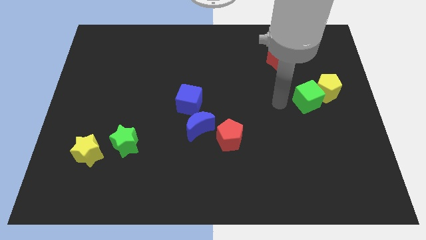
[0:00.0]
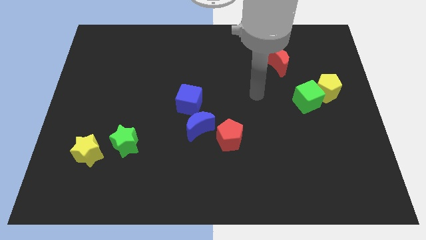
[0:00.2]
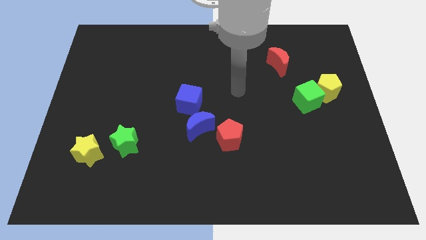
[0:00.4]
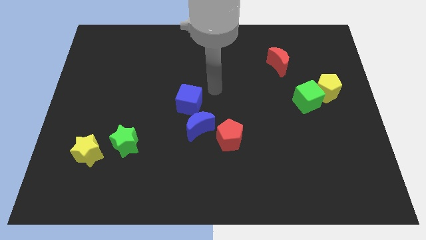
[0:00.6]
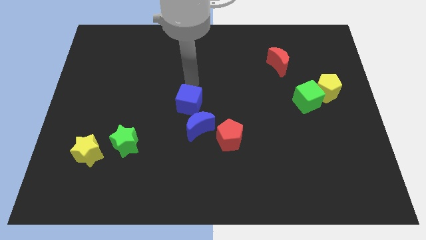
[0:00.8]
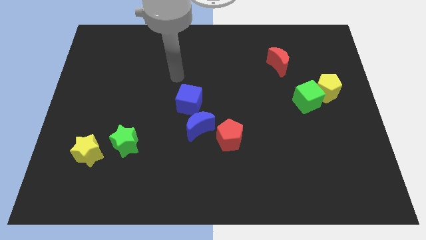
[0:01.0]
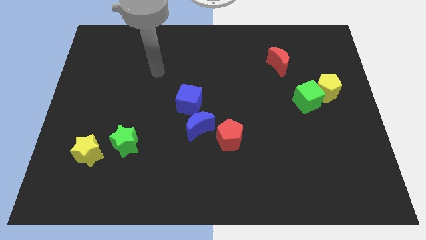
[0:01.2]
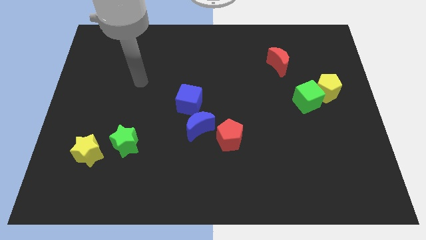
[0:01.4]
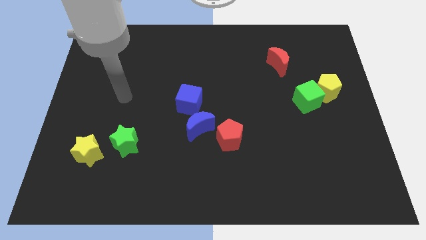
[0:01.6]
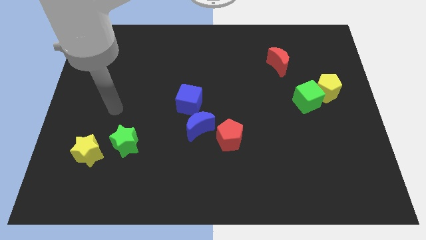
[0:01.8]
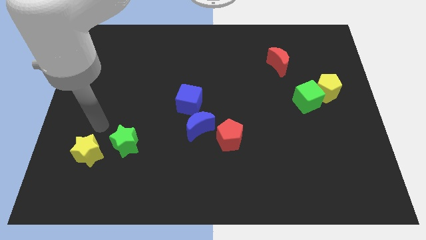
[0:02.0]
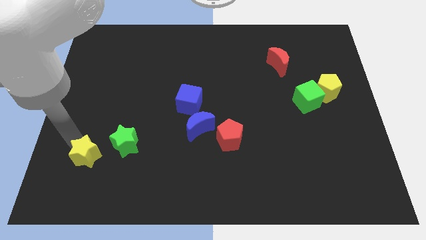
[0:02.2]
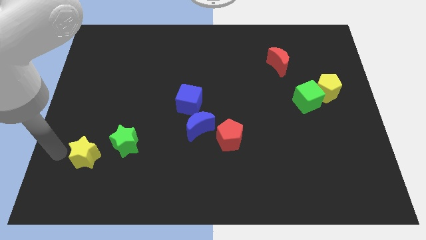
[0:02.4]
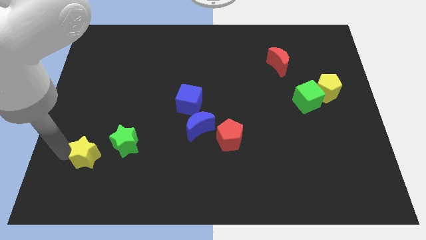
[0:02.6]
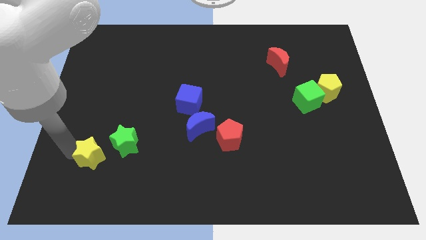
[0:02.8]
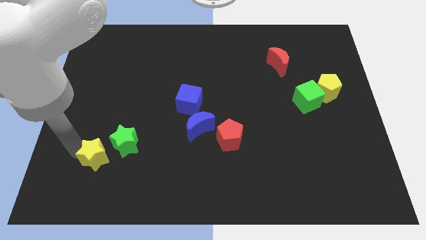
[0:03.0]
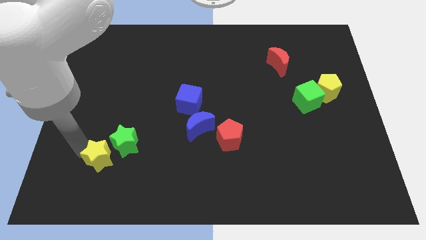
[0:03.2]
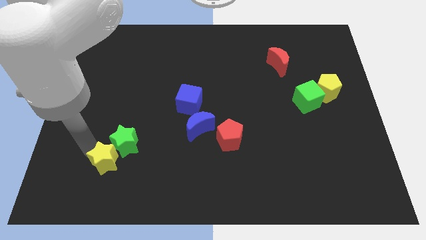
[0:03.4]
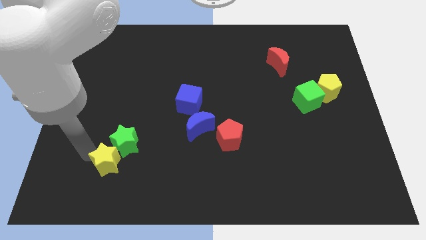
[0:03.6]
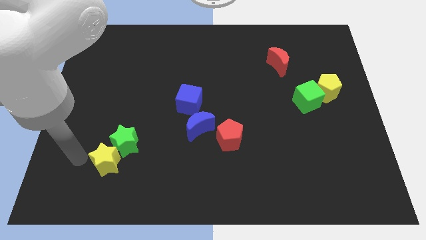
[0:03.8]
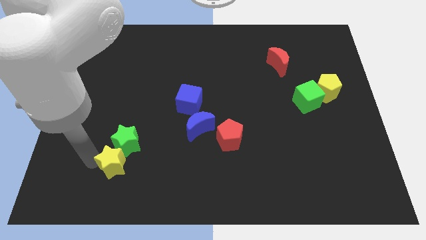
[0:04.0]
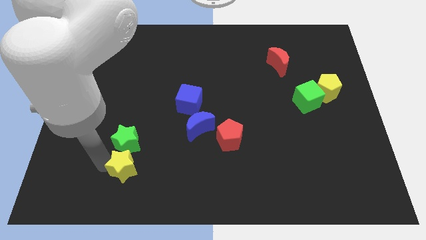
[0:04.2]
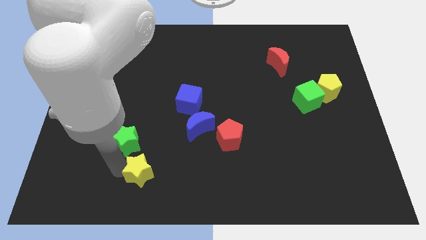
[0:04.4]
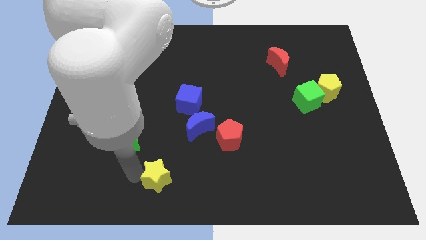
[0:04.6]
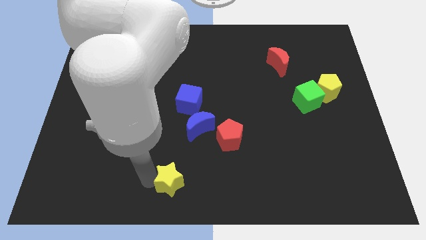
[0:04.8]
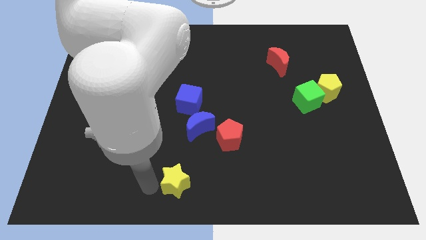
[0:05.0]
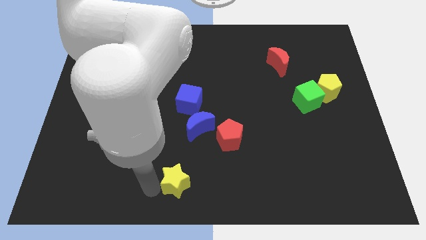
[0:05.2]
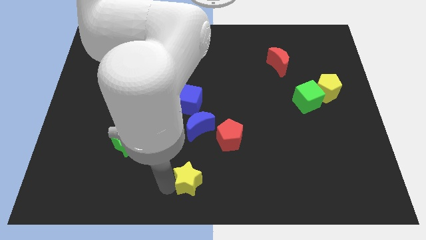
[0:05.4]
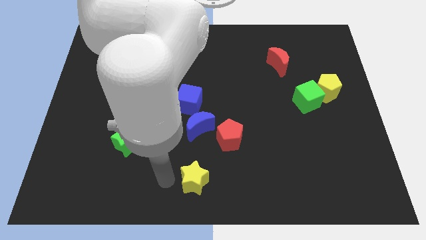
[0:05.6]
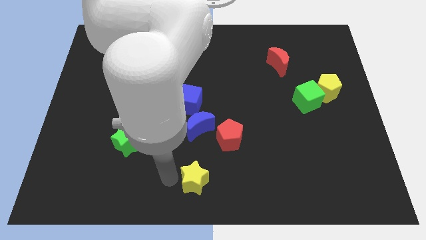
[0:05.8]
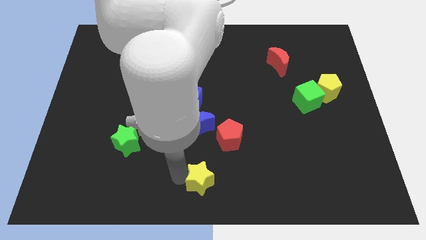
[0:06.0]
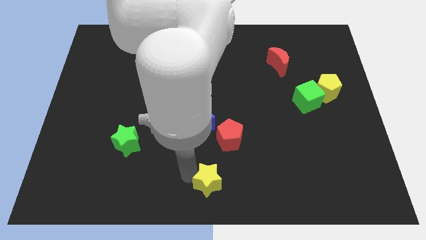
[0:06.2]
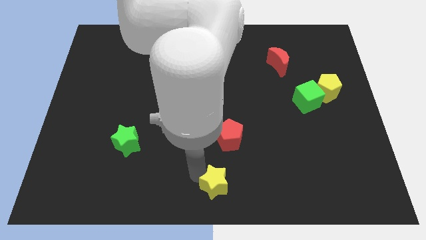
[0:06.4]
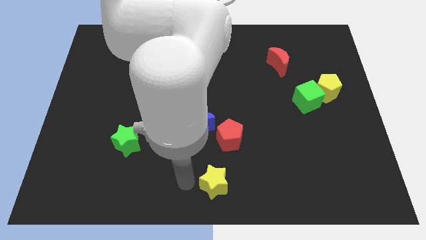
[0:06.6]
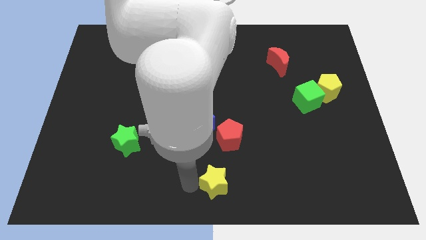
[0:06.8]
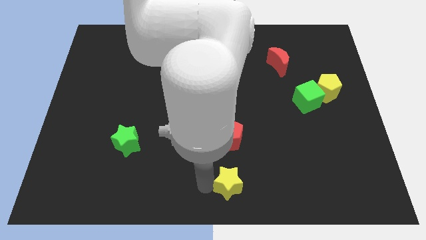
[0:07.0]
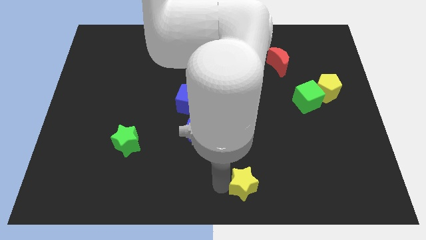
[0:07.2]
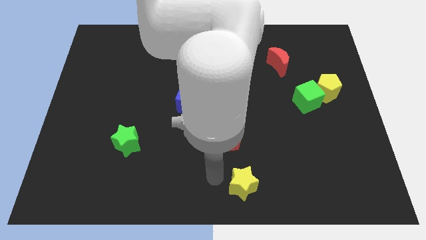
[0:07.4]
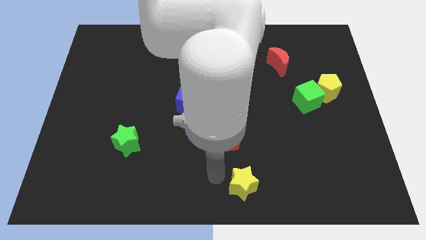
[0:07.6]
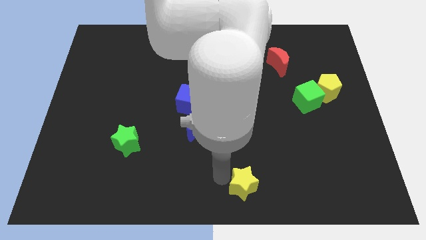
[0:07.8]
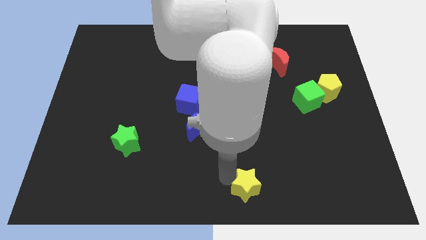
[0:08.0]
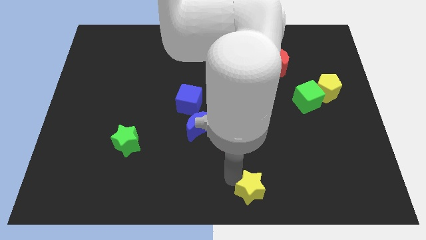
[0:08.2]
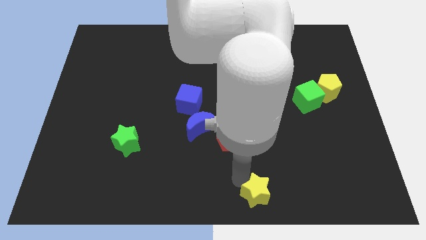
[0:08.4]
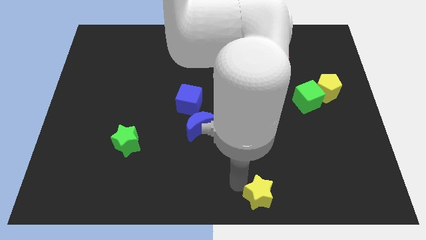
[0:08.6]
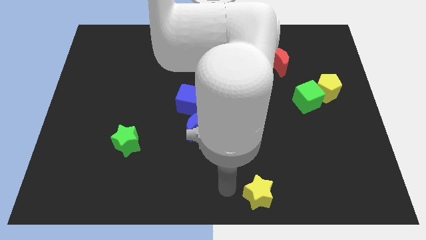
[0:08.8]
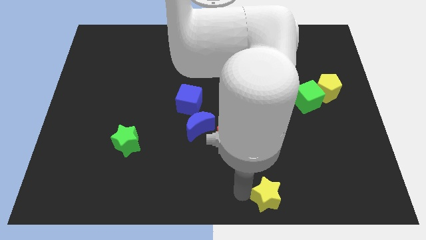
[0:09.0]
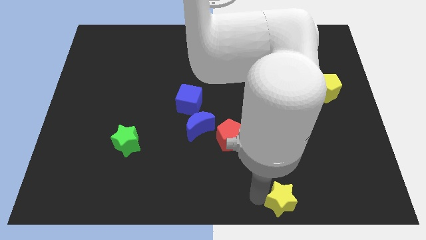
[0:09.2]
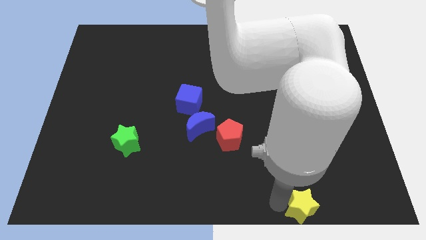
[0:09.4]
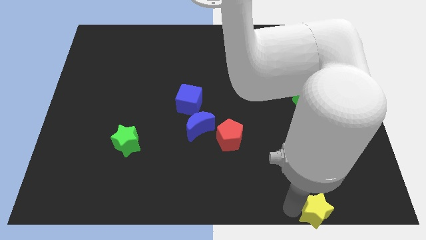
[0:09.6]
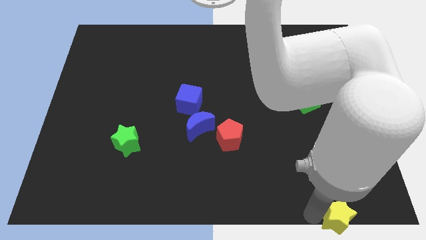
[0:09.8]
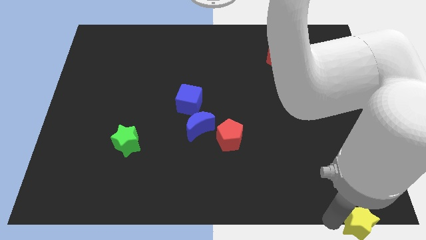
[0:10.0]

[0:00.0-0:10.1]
move the yellow star to the bottom right

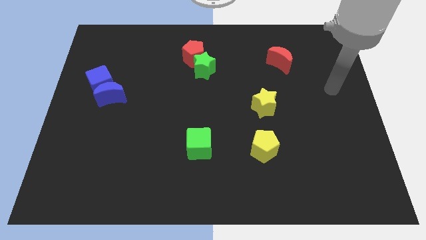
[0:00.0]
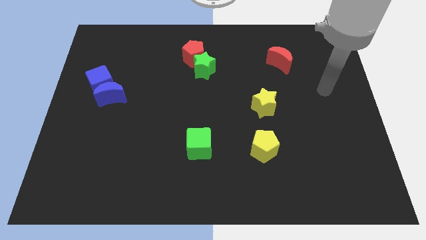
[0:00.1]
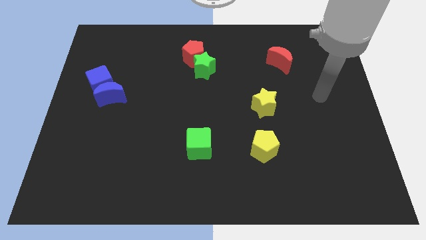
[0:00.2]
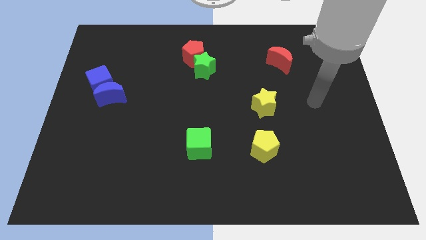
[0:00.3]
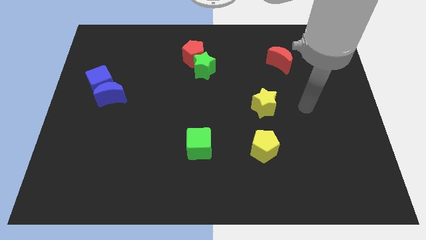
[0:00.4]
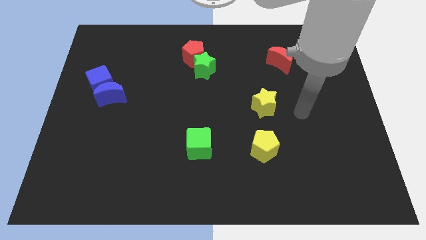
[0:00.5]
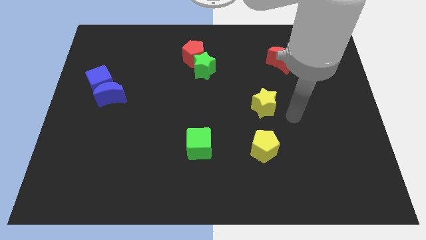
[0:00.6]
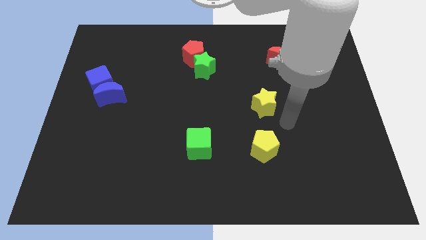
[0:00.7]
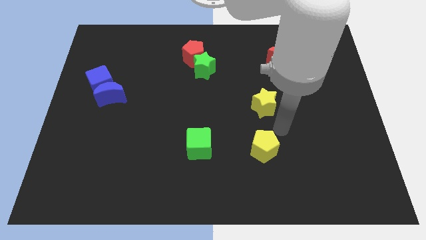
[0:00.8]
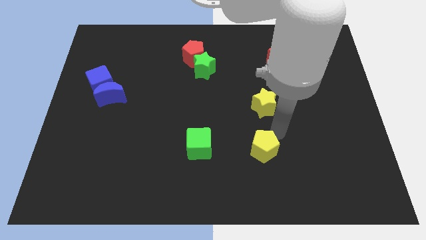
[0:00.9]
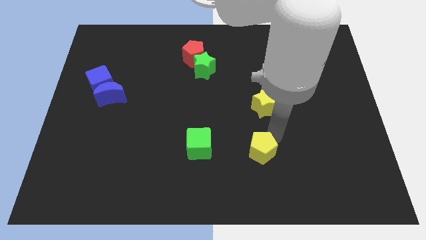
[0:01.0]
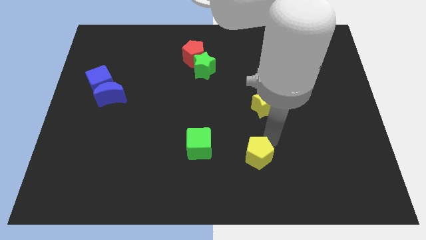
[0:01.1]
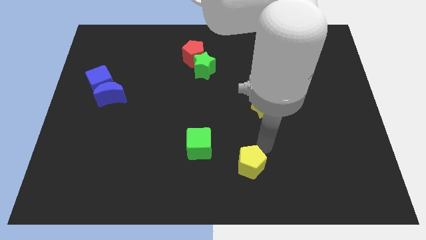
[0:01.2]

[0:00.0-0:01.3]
slide the yellow pentagon to the bottom side
